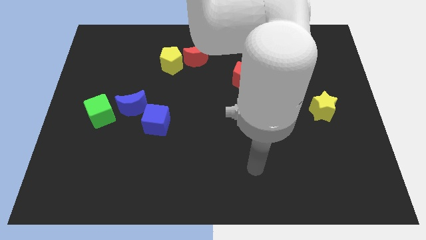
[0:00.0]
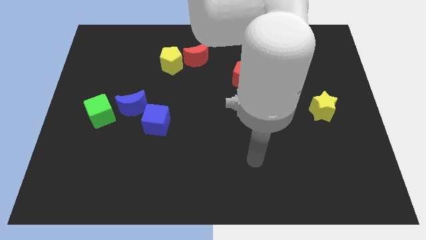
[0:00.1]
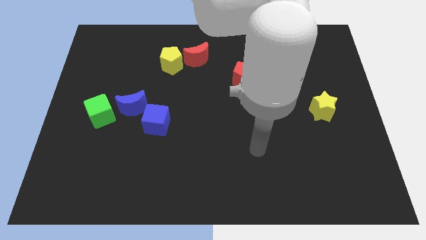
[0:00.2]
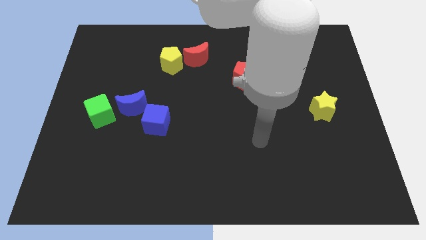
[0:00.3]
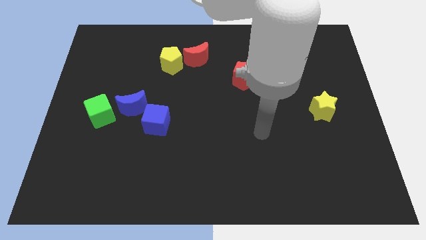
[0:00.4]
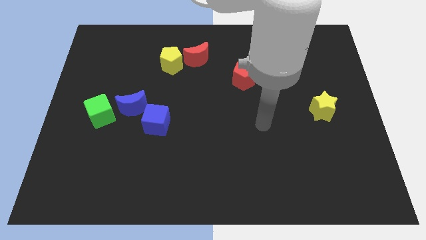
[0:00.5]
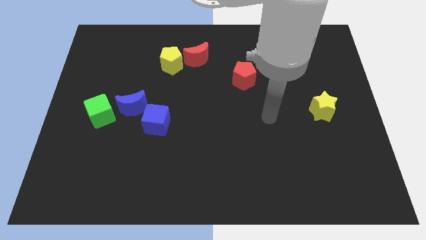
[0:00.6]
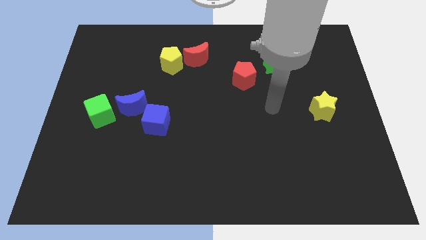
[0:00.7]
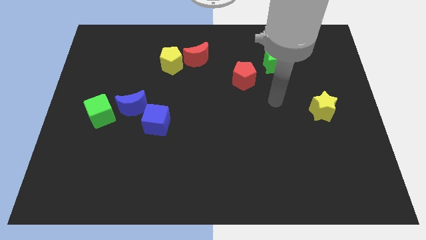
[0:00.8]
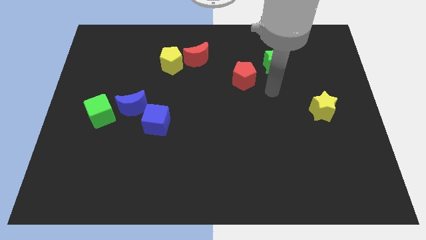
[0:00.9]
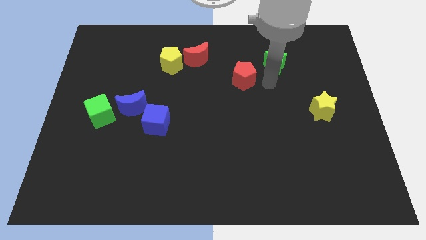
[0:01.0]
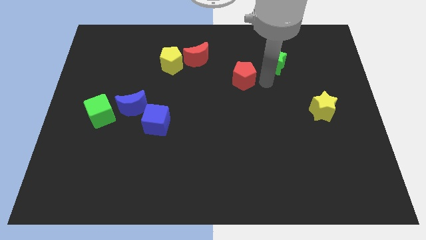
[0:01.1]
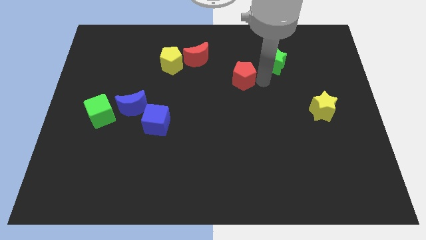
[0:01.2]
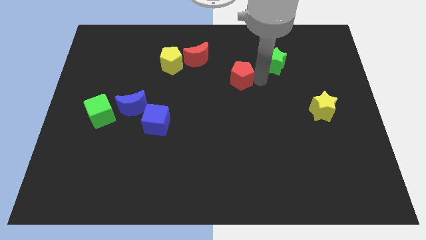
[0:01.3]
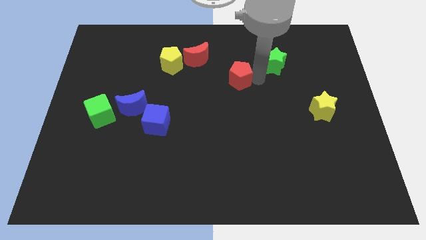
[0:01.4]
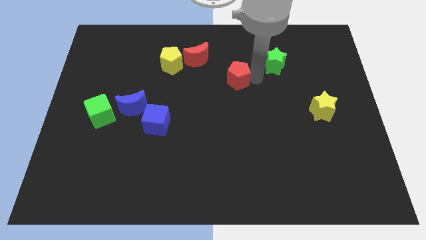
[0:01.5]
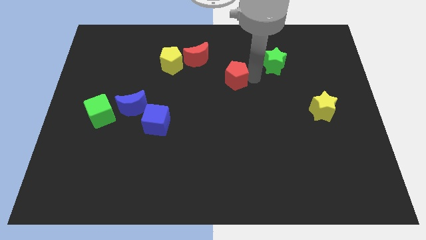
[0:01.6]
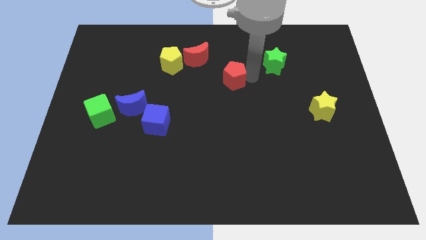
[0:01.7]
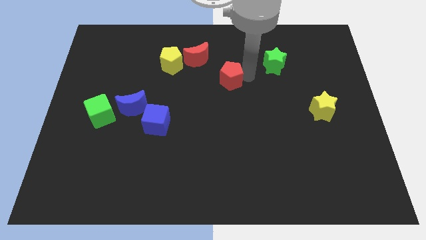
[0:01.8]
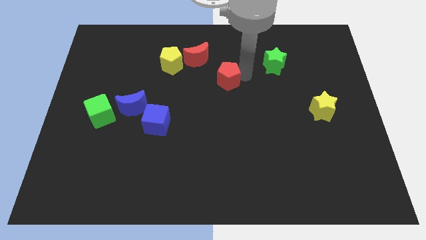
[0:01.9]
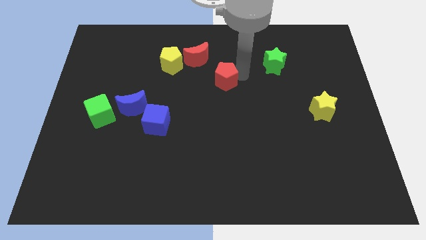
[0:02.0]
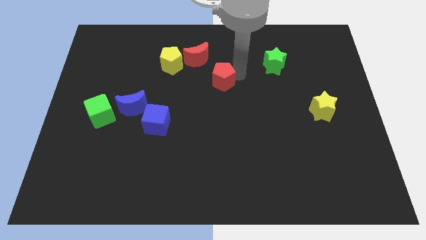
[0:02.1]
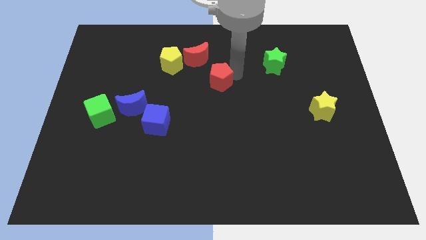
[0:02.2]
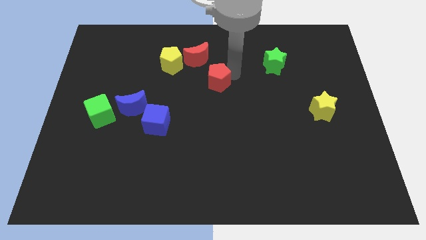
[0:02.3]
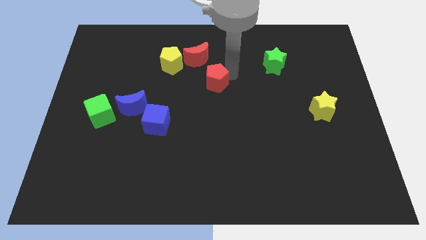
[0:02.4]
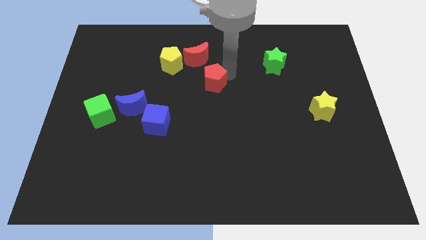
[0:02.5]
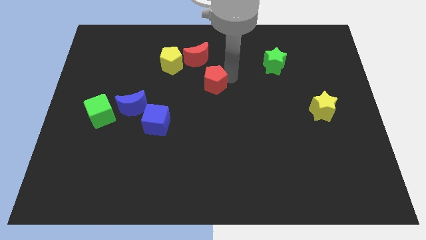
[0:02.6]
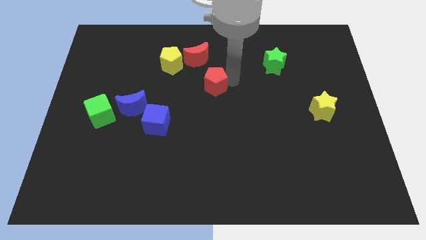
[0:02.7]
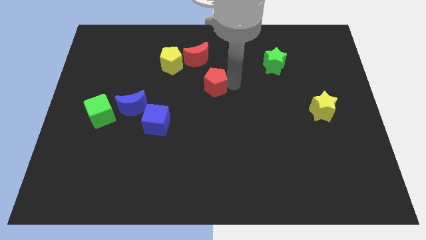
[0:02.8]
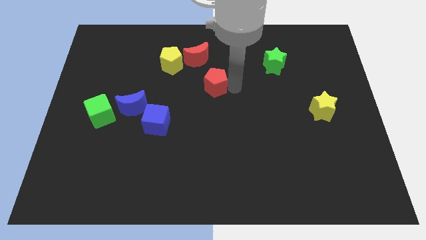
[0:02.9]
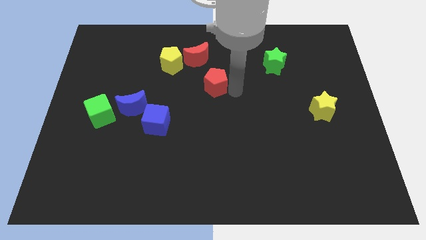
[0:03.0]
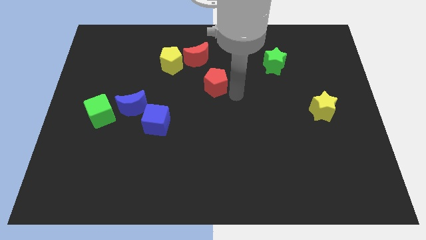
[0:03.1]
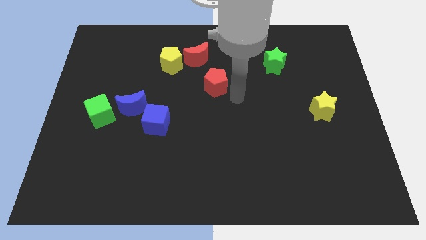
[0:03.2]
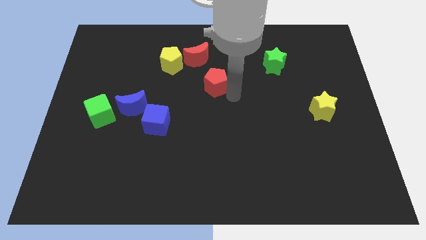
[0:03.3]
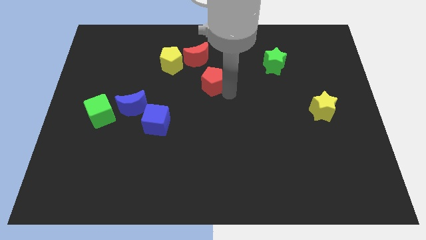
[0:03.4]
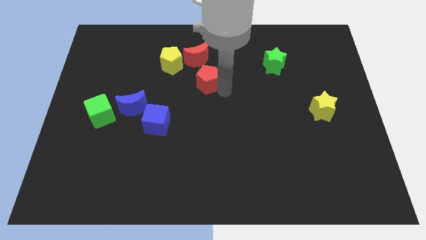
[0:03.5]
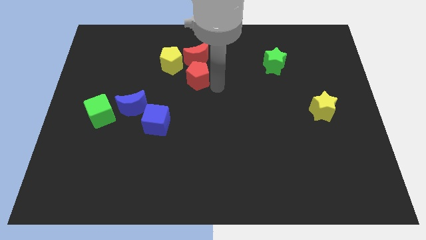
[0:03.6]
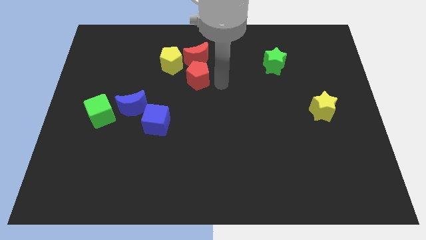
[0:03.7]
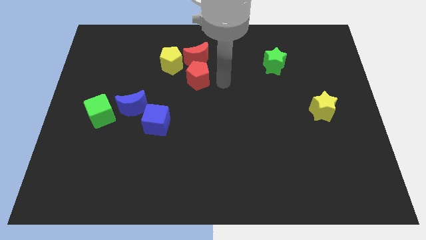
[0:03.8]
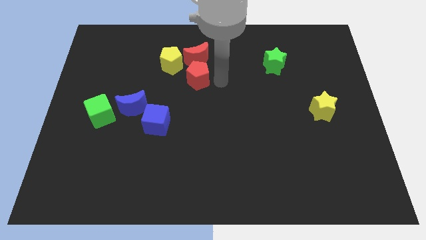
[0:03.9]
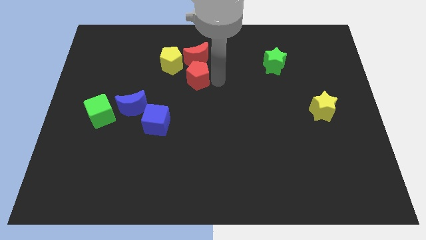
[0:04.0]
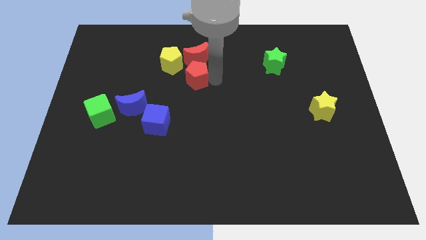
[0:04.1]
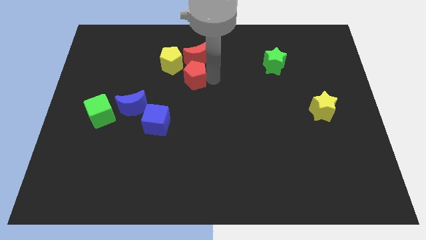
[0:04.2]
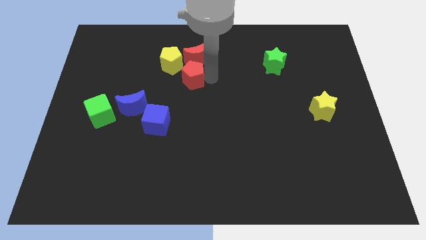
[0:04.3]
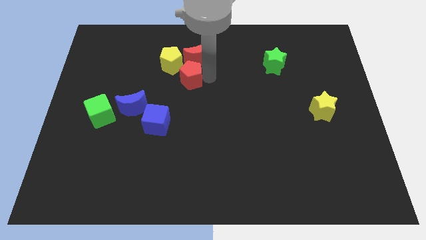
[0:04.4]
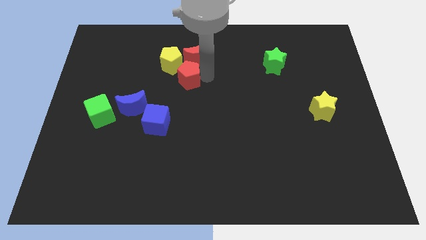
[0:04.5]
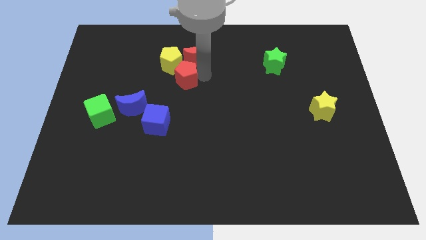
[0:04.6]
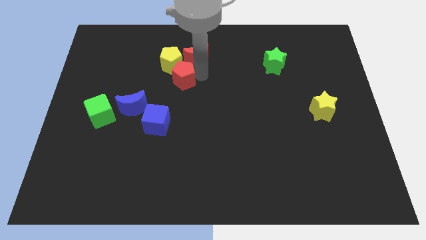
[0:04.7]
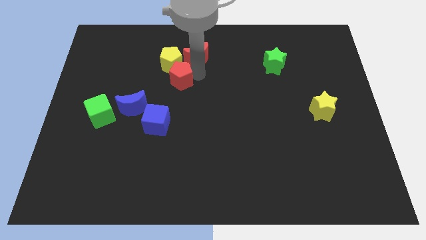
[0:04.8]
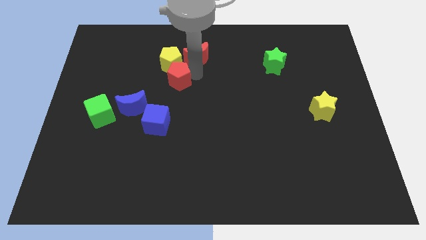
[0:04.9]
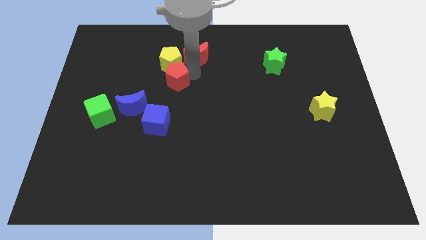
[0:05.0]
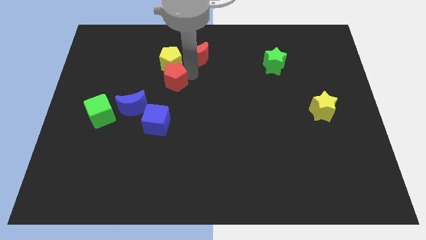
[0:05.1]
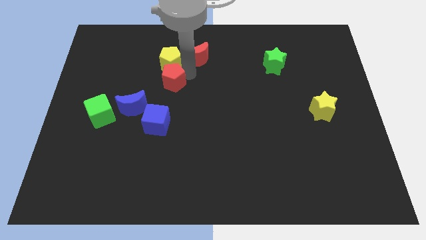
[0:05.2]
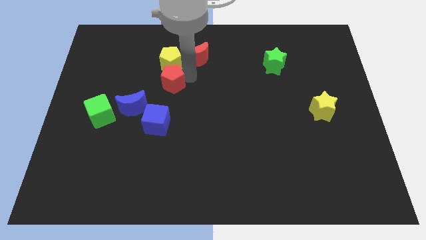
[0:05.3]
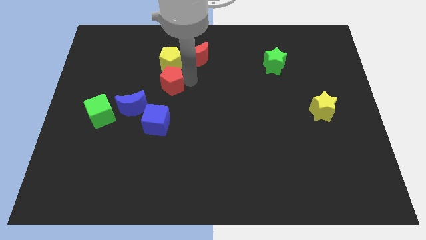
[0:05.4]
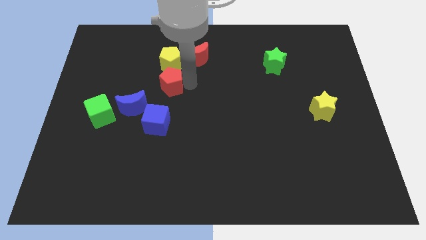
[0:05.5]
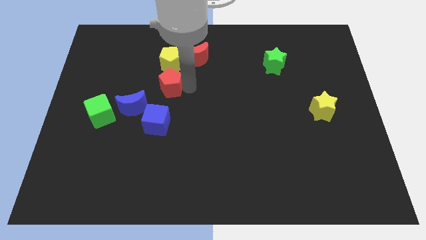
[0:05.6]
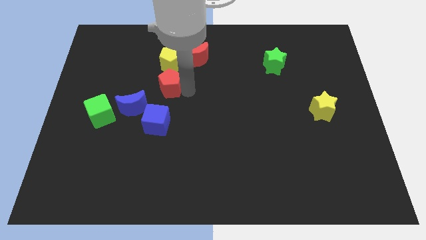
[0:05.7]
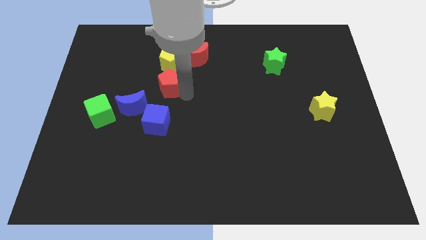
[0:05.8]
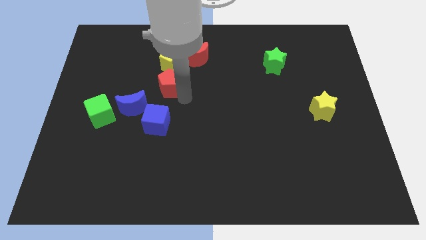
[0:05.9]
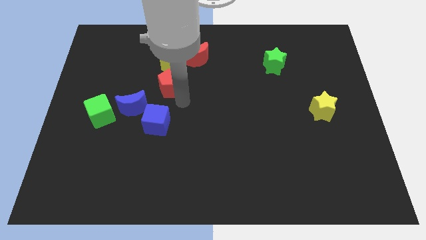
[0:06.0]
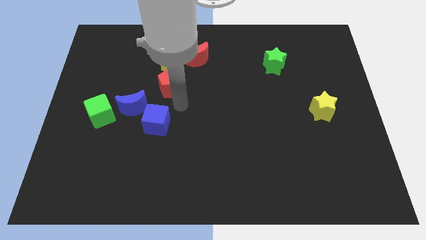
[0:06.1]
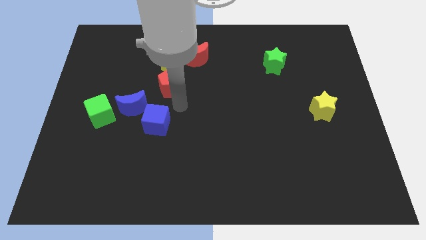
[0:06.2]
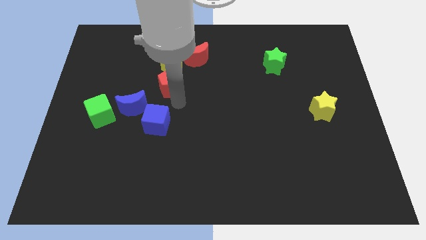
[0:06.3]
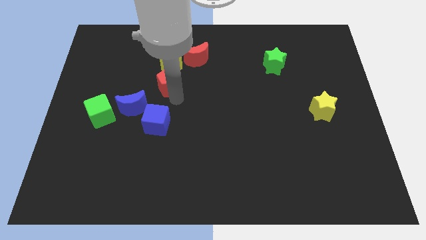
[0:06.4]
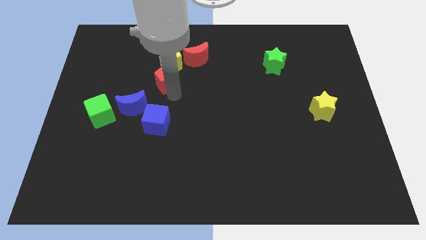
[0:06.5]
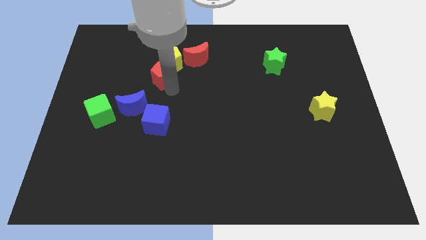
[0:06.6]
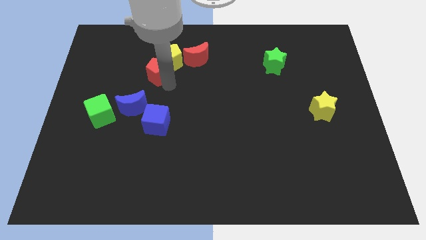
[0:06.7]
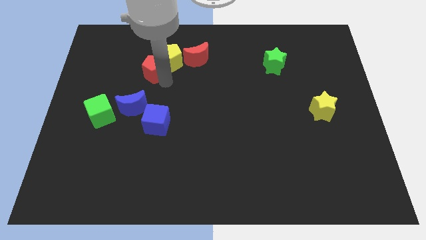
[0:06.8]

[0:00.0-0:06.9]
slide the red pentagon just left of the red moon

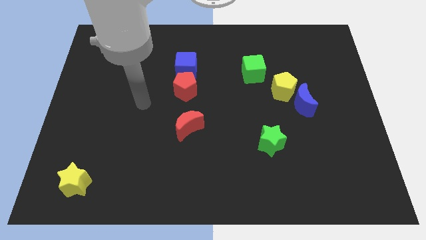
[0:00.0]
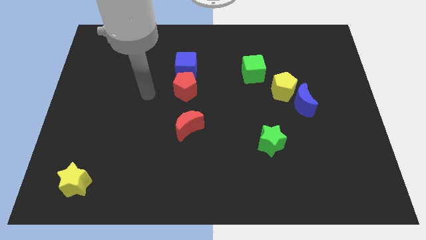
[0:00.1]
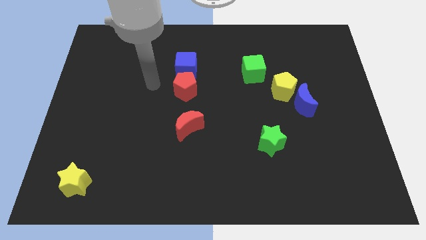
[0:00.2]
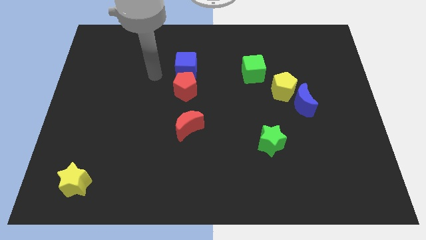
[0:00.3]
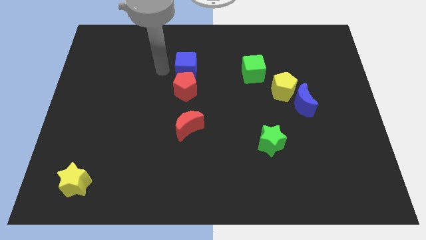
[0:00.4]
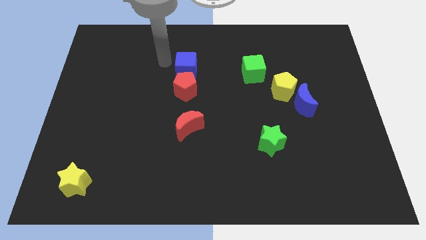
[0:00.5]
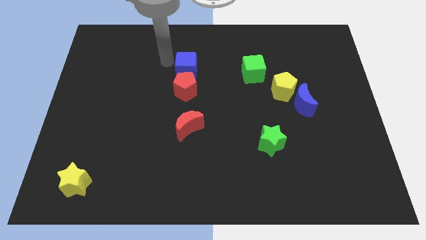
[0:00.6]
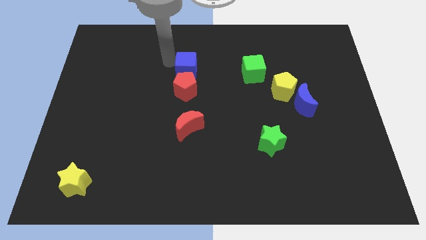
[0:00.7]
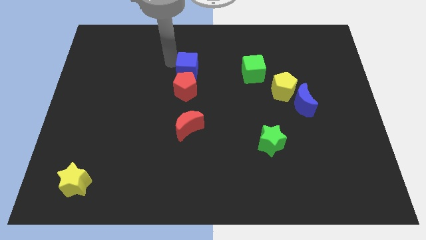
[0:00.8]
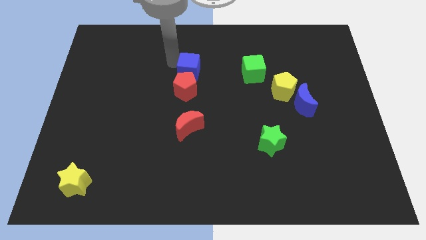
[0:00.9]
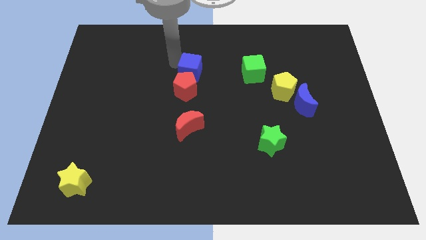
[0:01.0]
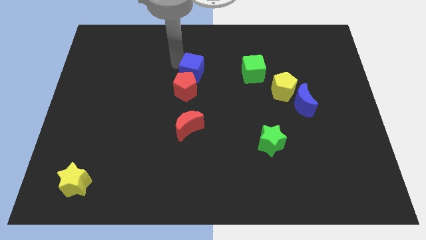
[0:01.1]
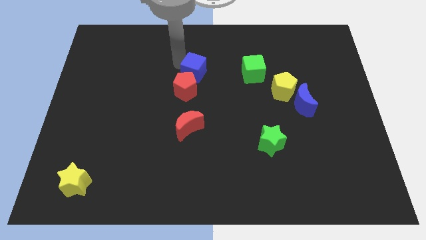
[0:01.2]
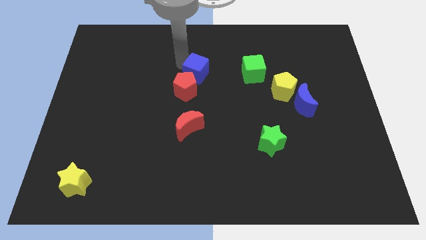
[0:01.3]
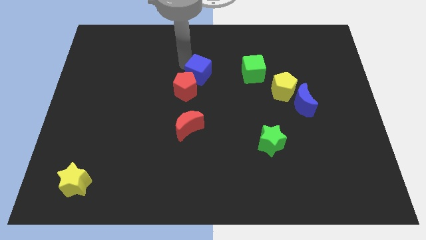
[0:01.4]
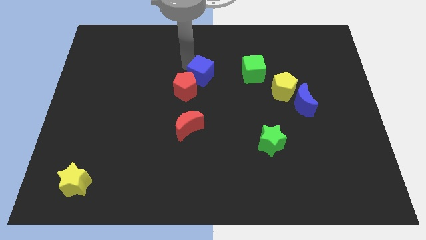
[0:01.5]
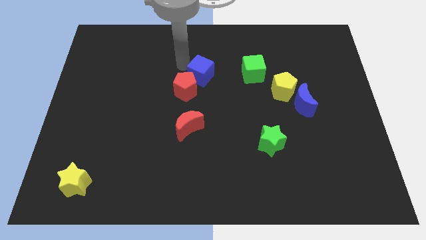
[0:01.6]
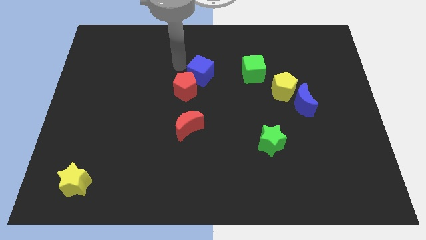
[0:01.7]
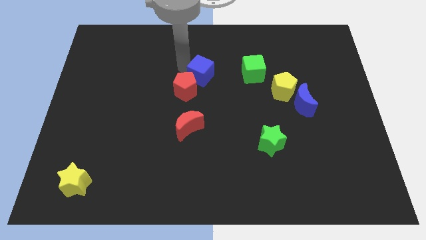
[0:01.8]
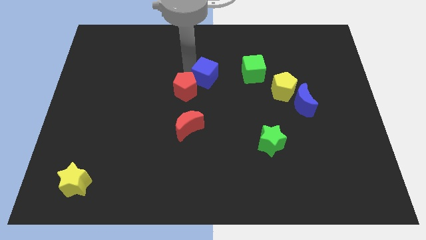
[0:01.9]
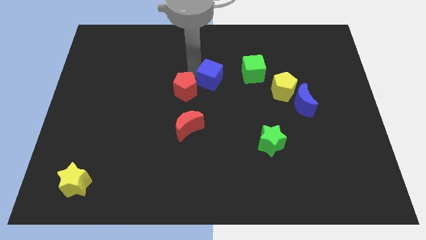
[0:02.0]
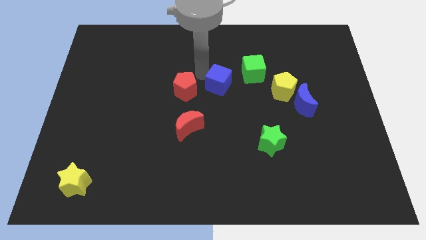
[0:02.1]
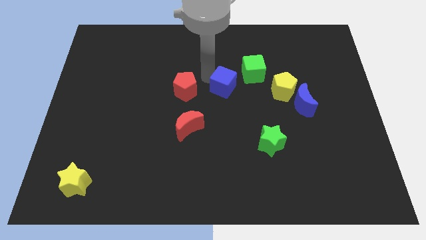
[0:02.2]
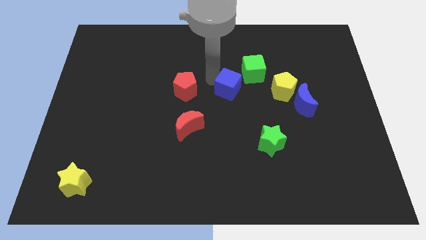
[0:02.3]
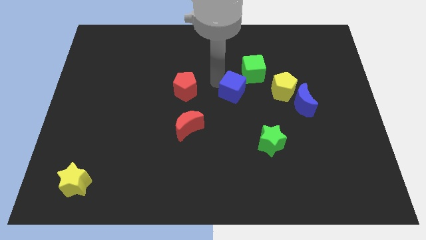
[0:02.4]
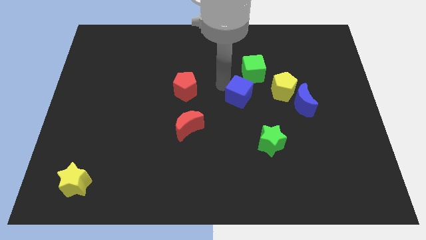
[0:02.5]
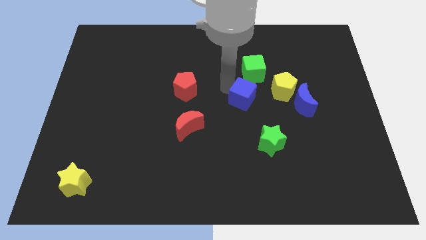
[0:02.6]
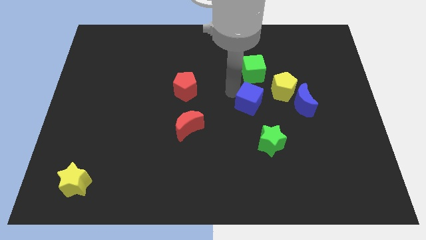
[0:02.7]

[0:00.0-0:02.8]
slide the blue cube above the green star
